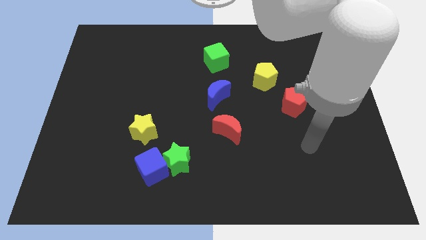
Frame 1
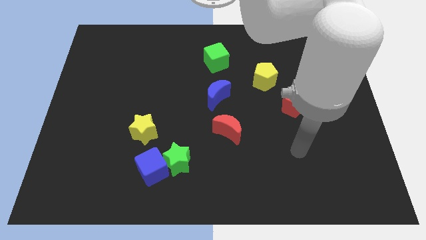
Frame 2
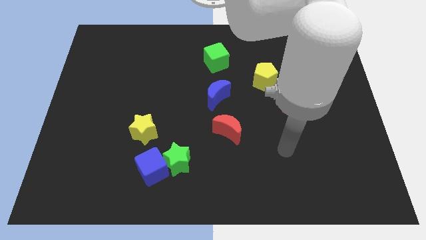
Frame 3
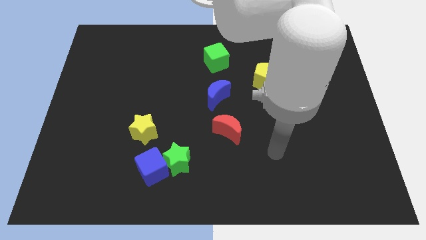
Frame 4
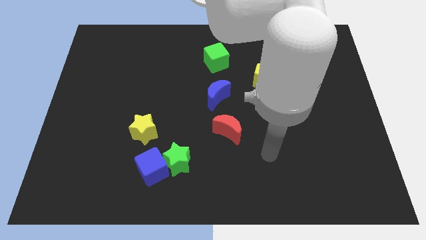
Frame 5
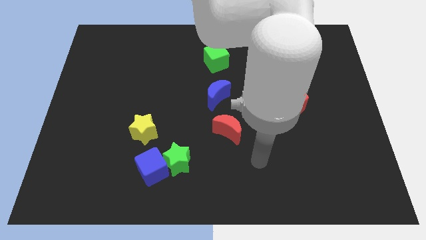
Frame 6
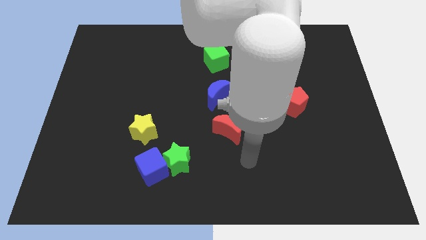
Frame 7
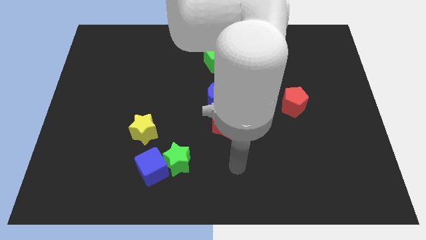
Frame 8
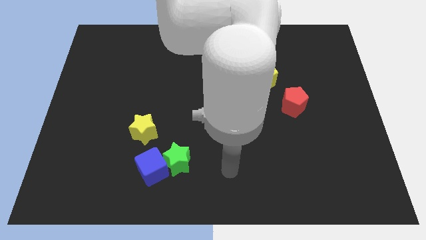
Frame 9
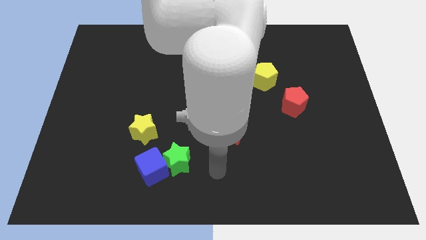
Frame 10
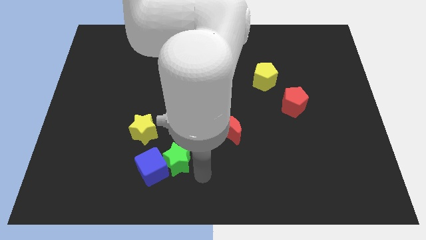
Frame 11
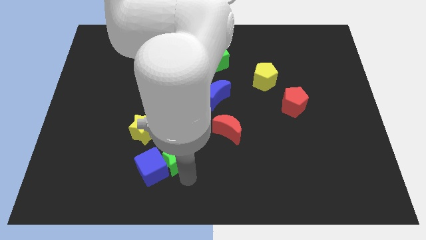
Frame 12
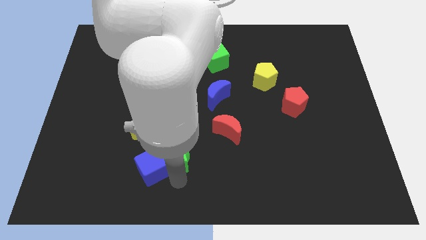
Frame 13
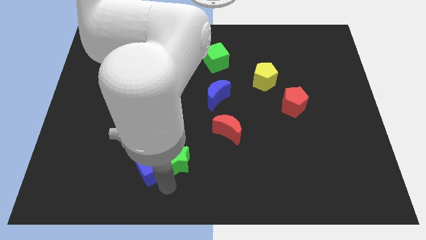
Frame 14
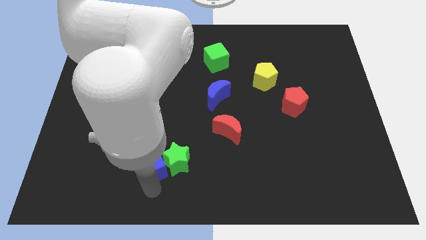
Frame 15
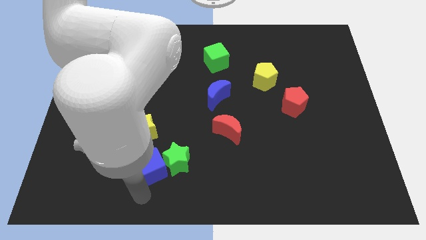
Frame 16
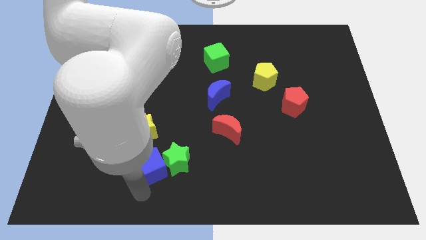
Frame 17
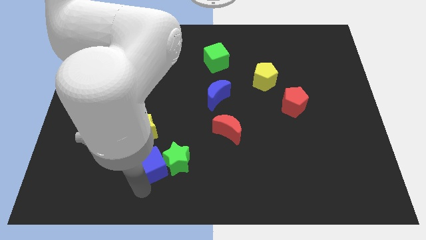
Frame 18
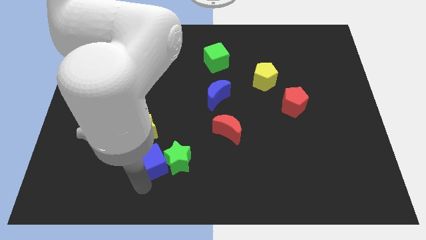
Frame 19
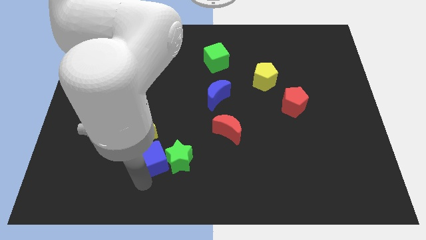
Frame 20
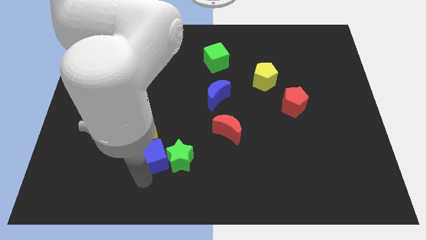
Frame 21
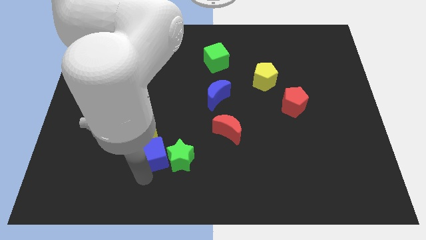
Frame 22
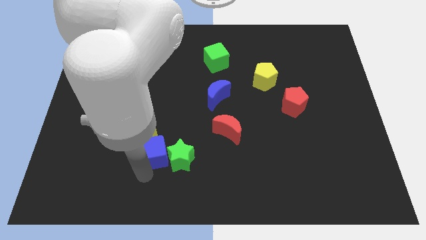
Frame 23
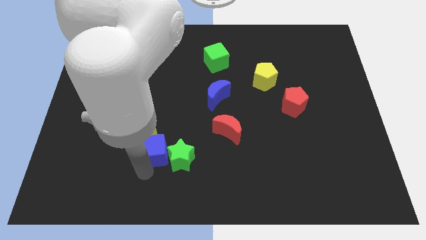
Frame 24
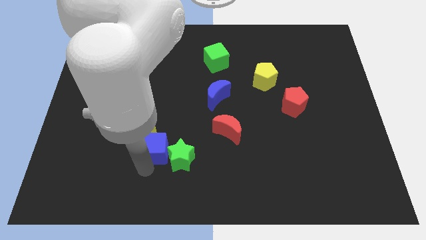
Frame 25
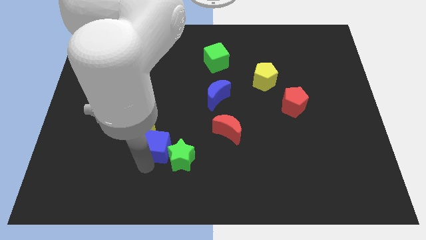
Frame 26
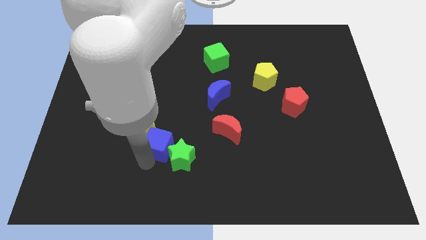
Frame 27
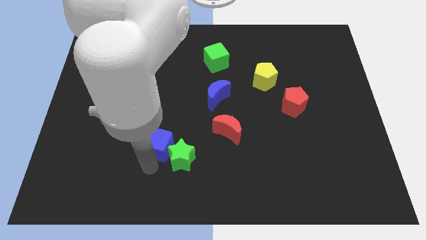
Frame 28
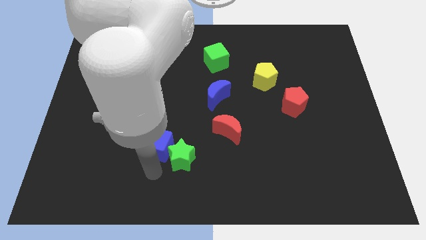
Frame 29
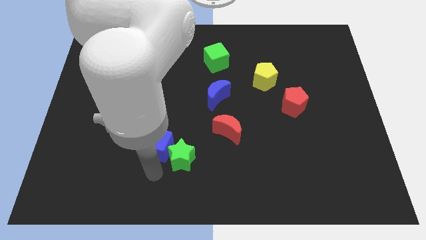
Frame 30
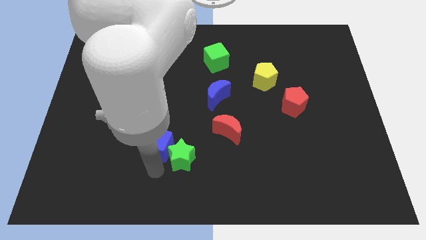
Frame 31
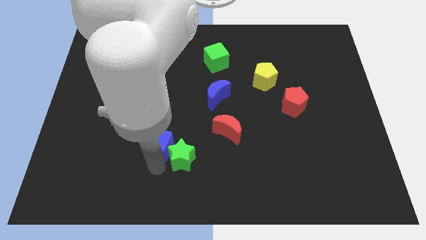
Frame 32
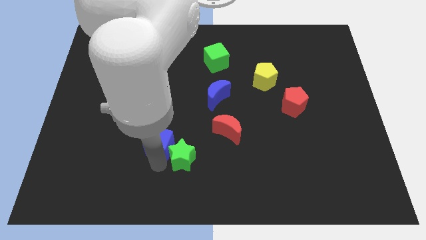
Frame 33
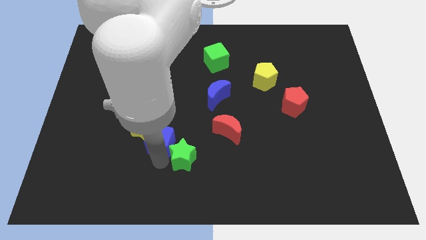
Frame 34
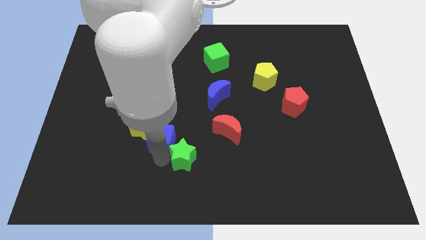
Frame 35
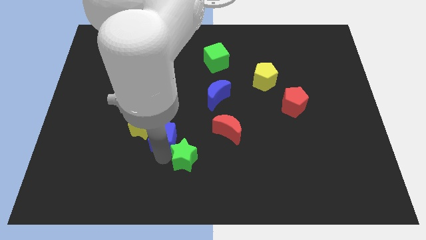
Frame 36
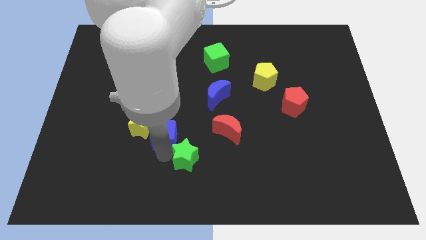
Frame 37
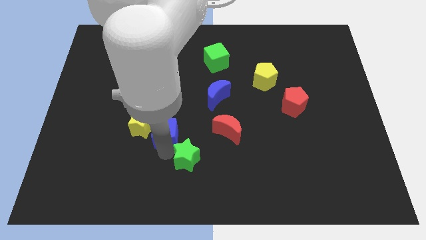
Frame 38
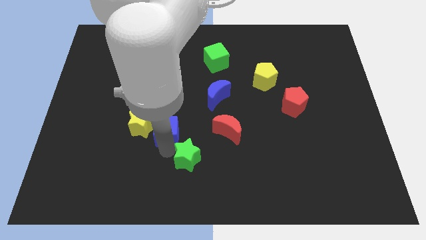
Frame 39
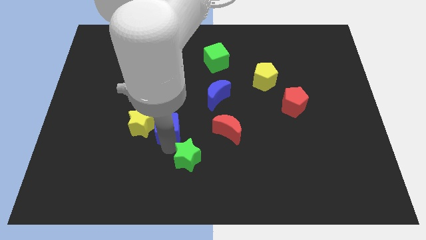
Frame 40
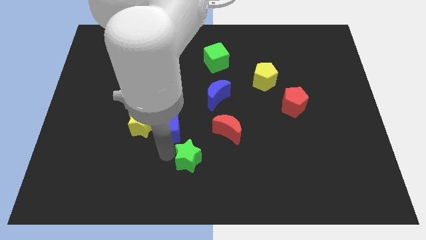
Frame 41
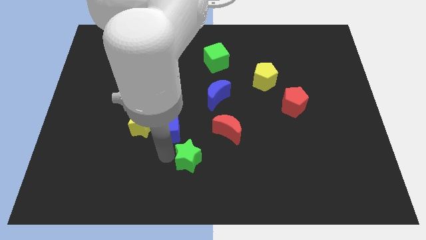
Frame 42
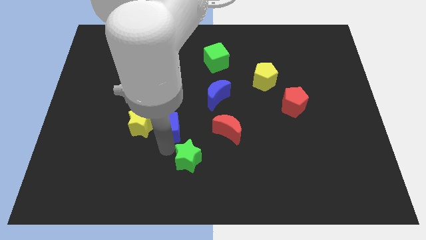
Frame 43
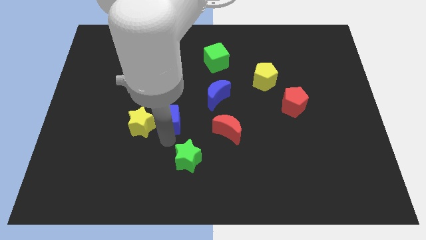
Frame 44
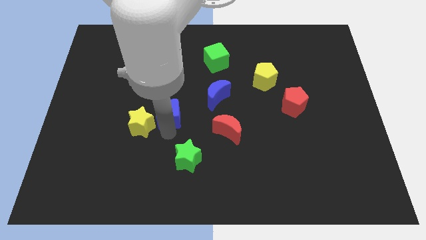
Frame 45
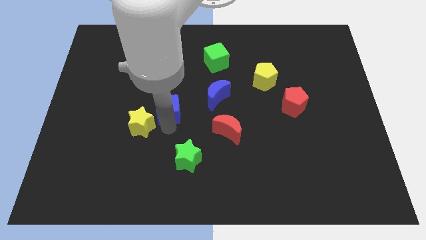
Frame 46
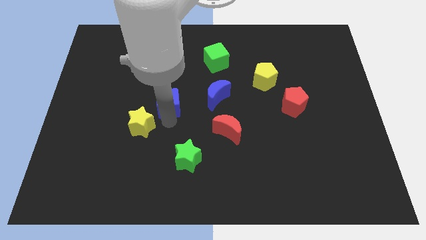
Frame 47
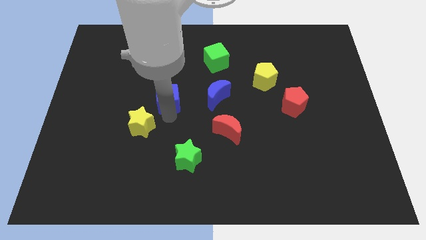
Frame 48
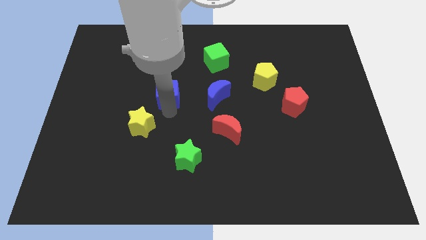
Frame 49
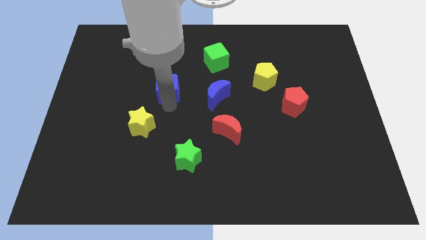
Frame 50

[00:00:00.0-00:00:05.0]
push the blue cube up

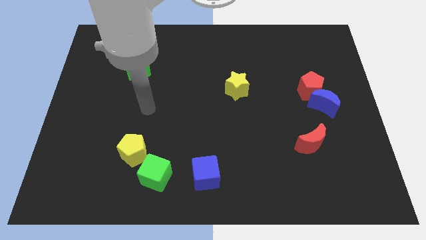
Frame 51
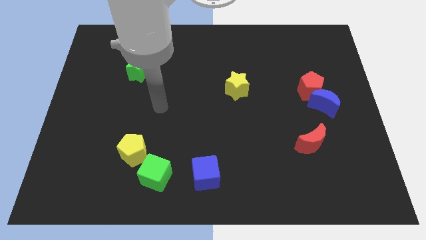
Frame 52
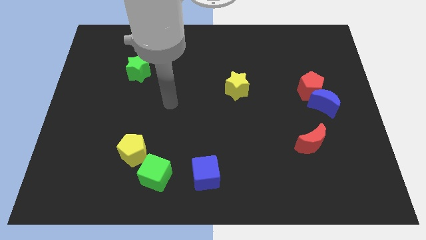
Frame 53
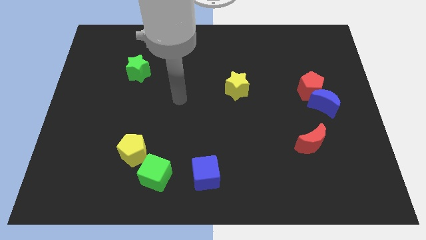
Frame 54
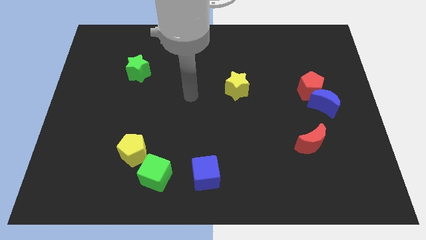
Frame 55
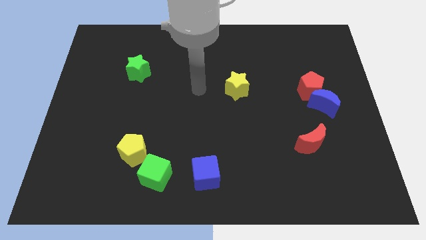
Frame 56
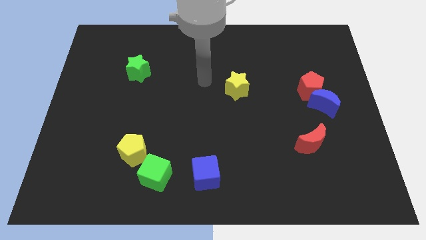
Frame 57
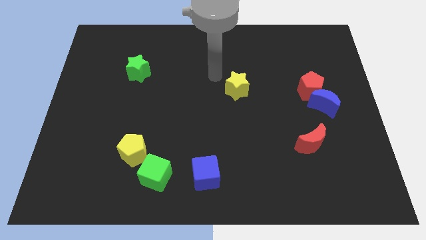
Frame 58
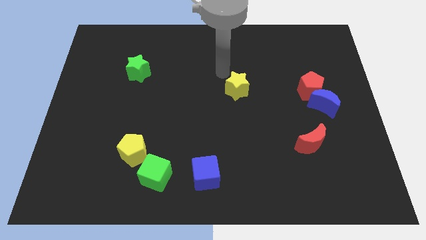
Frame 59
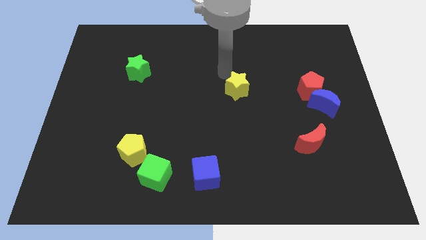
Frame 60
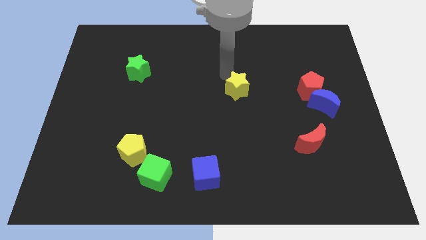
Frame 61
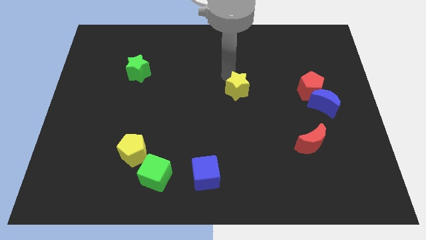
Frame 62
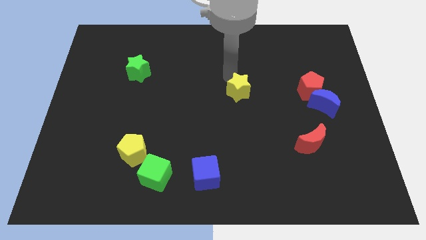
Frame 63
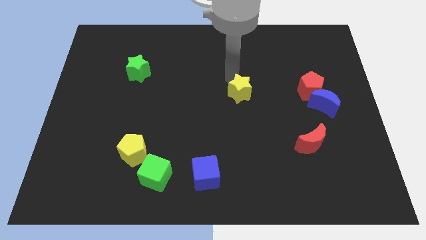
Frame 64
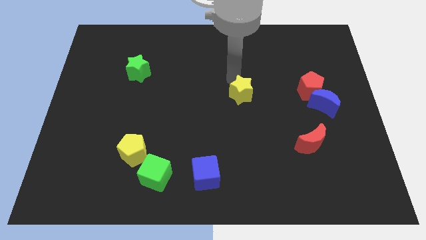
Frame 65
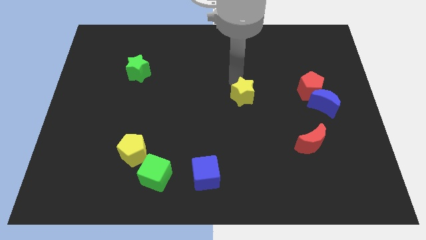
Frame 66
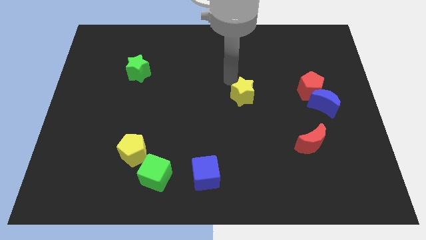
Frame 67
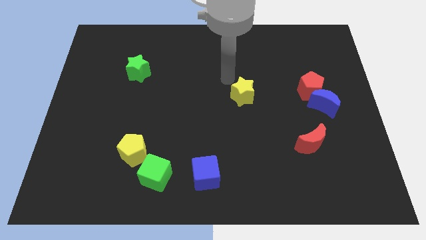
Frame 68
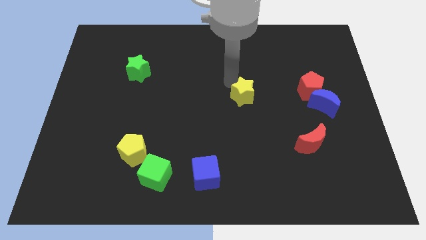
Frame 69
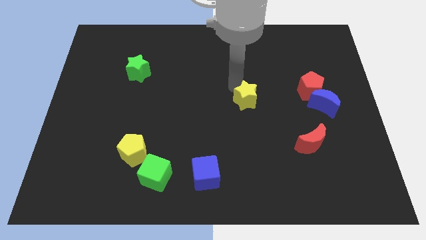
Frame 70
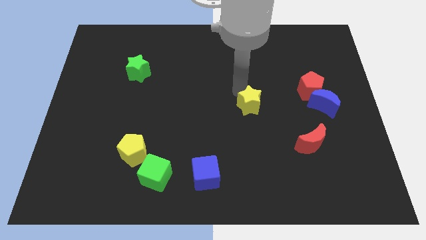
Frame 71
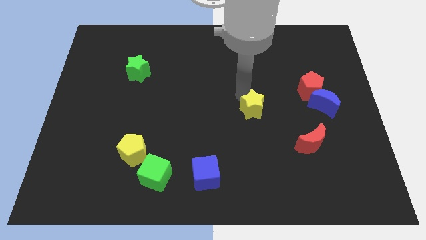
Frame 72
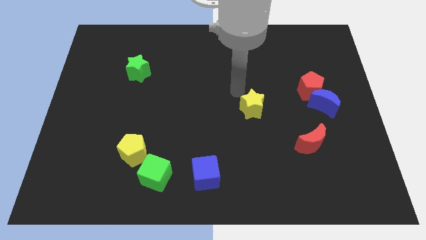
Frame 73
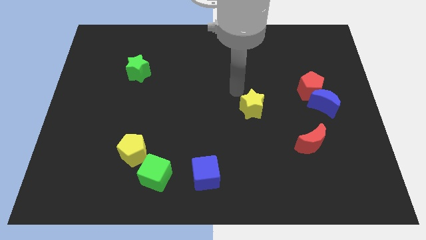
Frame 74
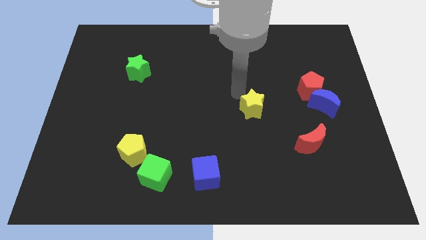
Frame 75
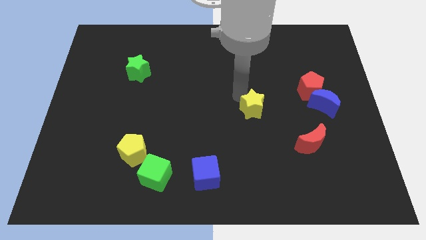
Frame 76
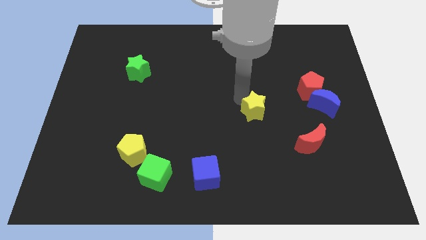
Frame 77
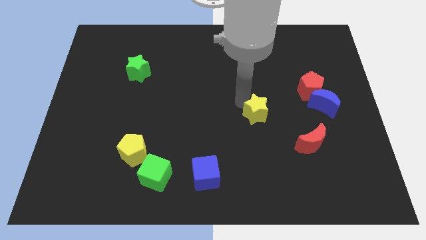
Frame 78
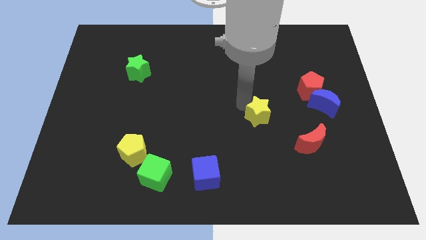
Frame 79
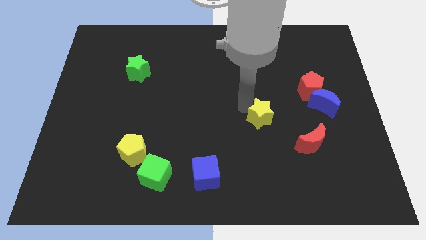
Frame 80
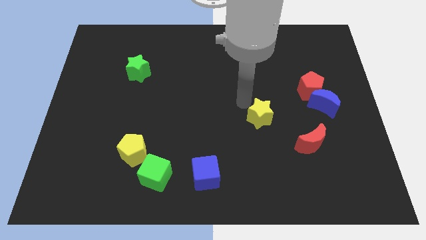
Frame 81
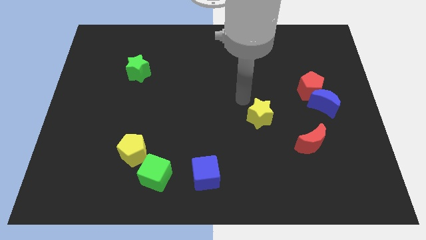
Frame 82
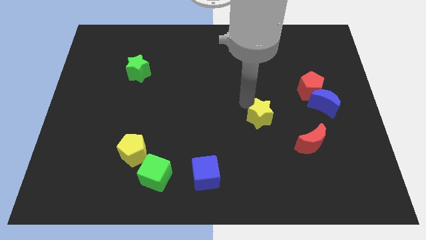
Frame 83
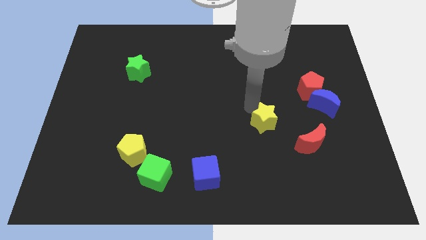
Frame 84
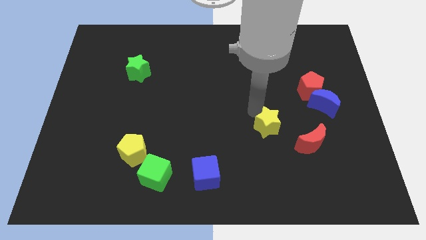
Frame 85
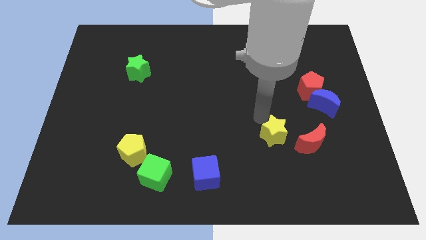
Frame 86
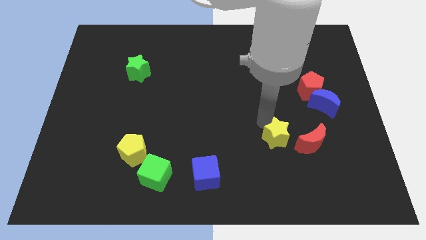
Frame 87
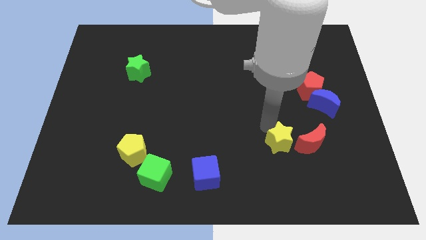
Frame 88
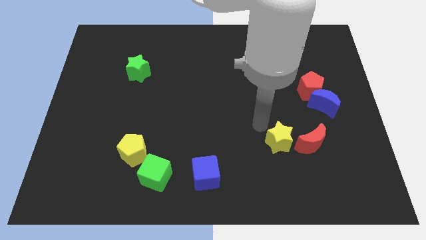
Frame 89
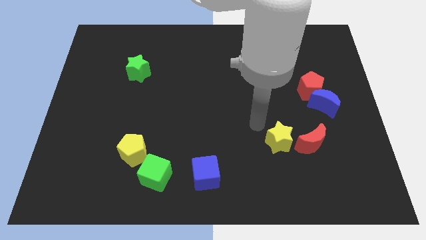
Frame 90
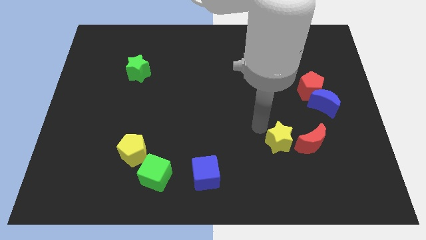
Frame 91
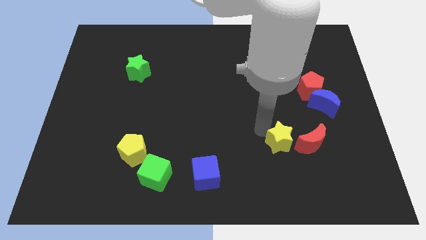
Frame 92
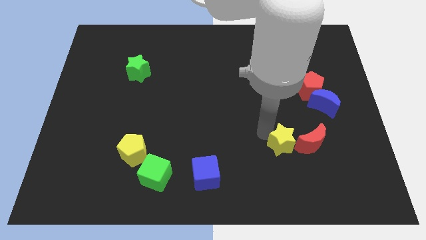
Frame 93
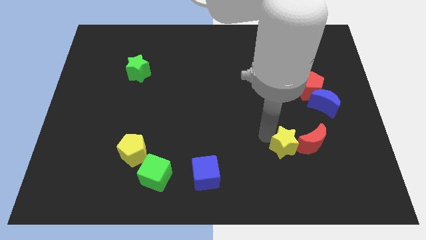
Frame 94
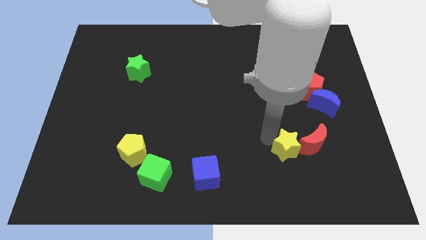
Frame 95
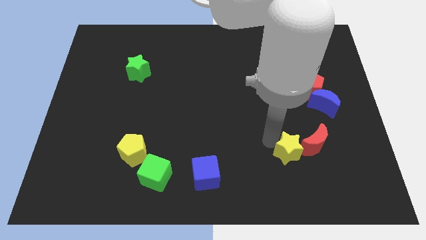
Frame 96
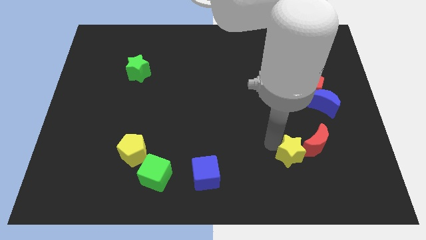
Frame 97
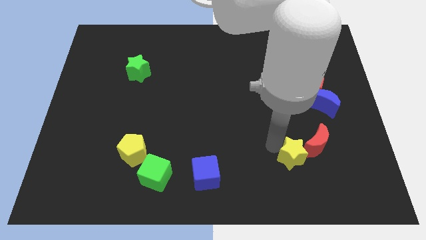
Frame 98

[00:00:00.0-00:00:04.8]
move the yellow star downwards and then right
